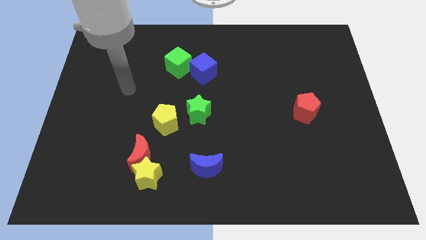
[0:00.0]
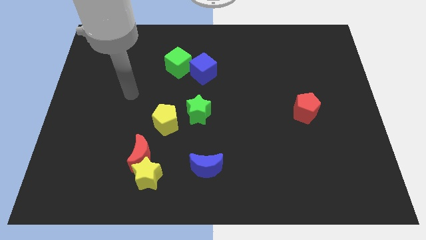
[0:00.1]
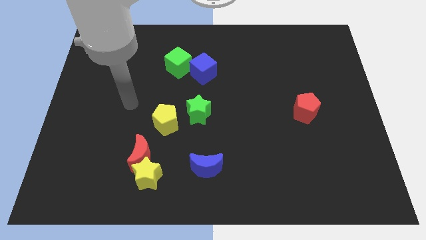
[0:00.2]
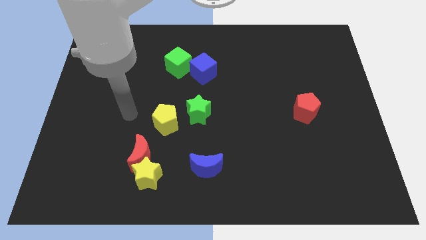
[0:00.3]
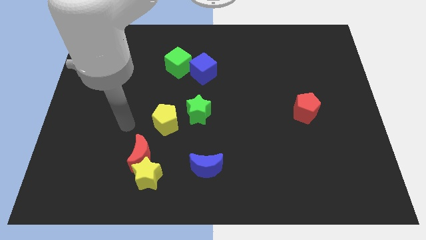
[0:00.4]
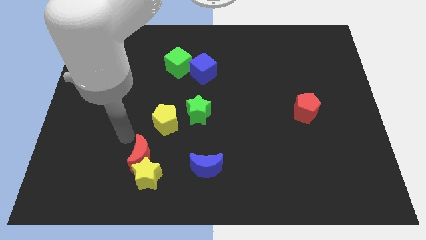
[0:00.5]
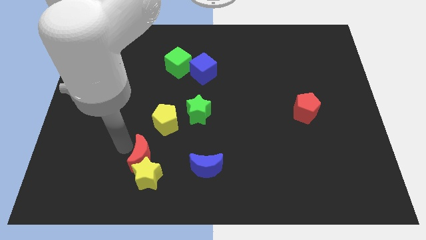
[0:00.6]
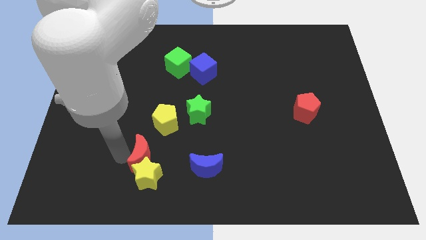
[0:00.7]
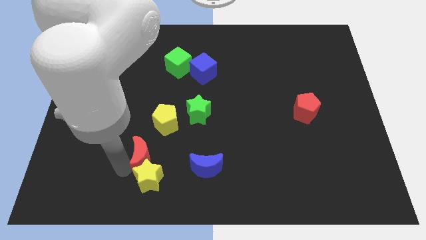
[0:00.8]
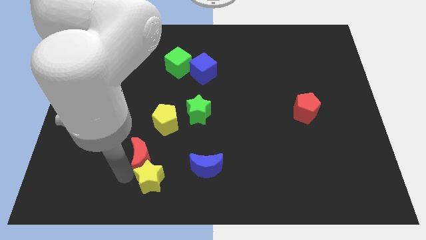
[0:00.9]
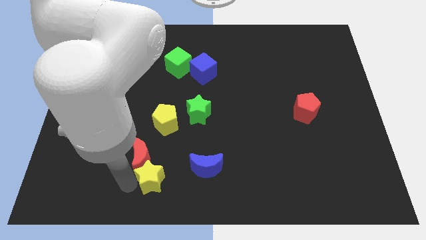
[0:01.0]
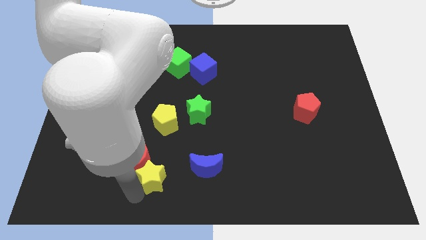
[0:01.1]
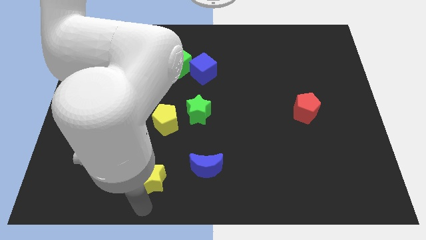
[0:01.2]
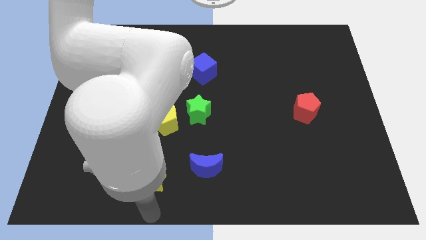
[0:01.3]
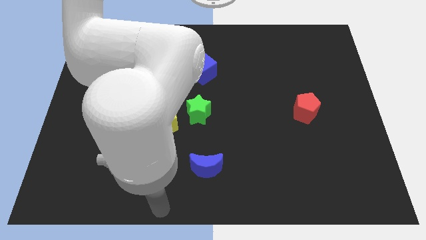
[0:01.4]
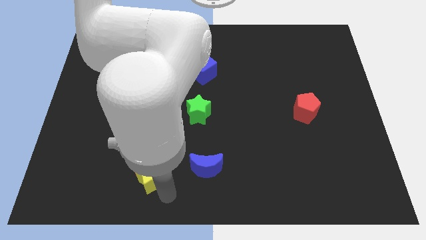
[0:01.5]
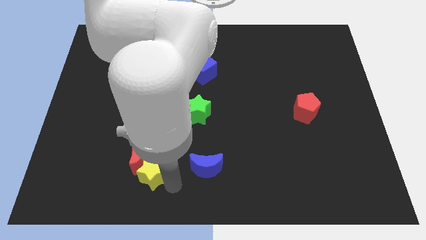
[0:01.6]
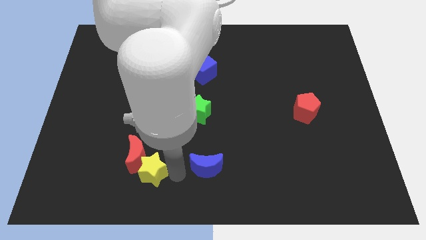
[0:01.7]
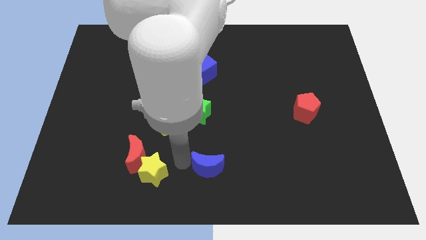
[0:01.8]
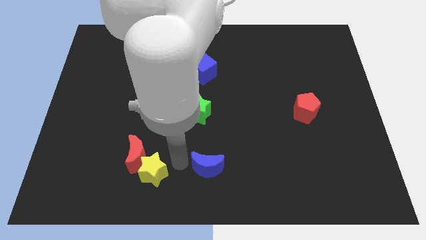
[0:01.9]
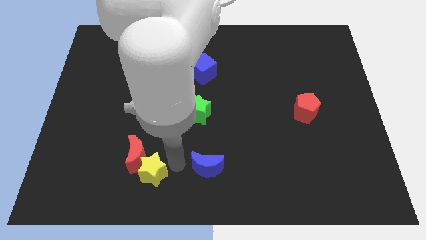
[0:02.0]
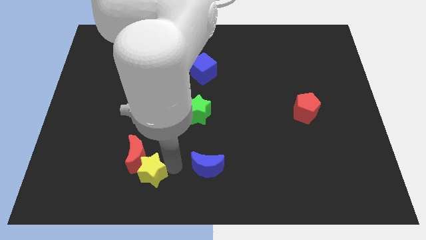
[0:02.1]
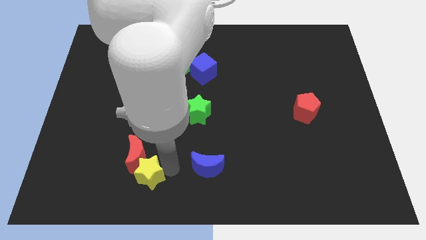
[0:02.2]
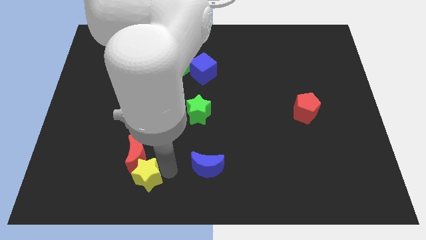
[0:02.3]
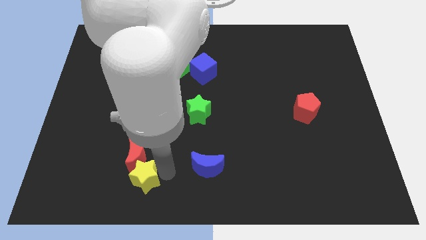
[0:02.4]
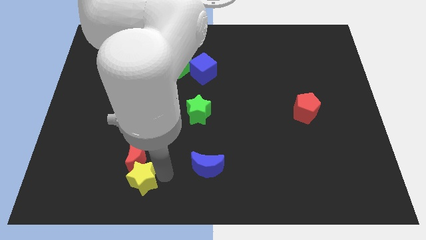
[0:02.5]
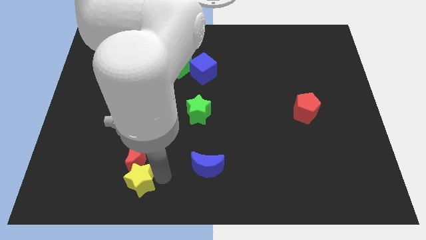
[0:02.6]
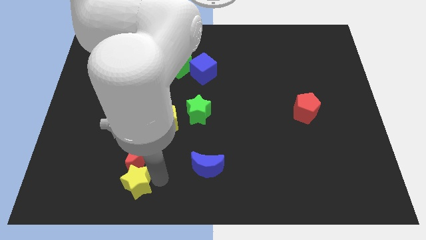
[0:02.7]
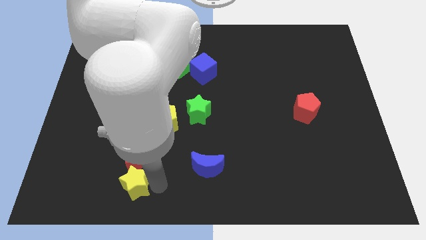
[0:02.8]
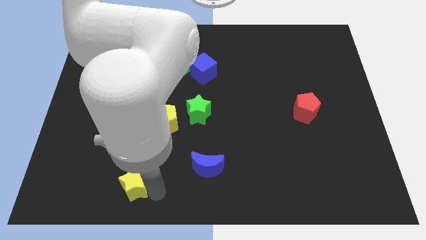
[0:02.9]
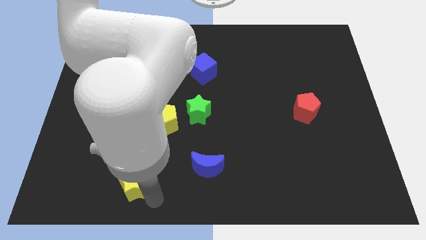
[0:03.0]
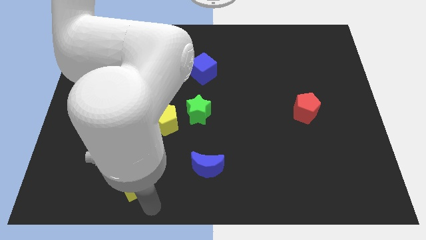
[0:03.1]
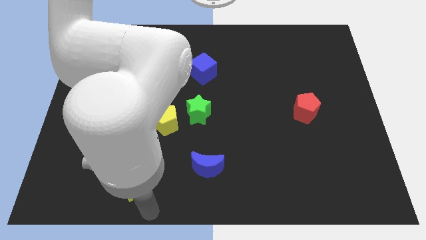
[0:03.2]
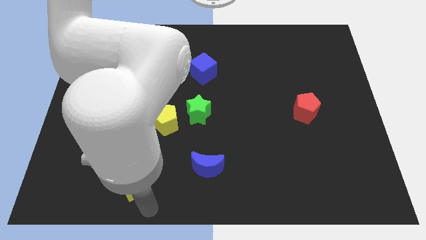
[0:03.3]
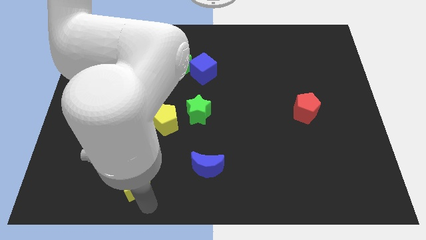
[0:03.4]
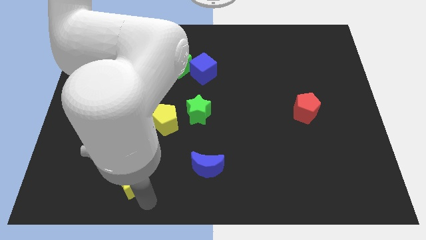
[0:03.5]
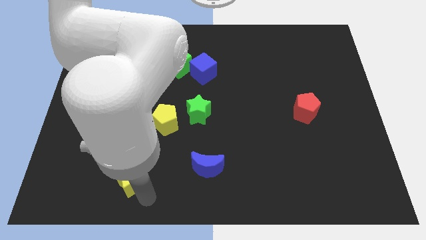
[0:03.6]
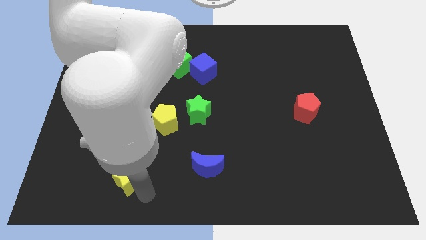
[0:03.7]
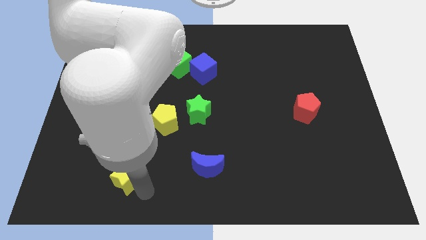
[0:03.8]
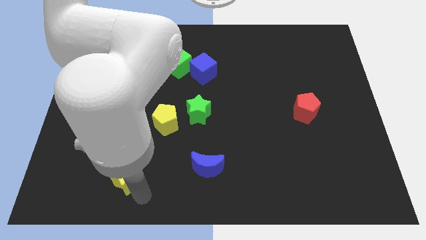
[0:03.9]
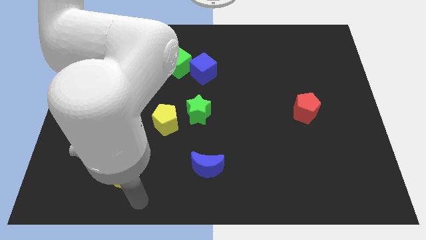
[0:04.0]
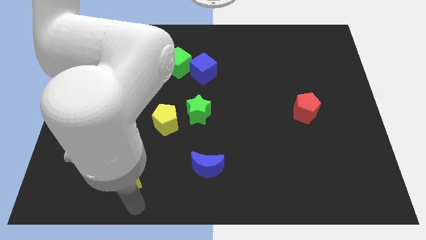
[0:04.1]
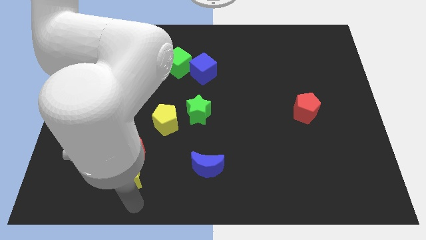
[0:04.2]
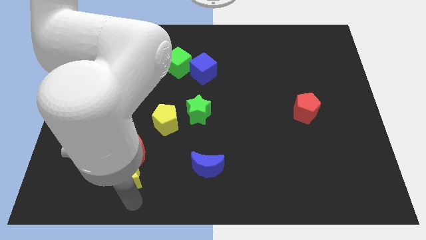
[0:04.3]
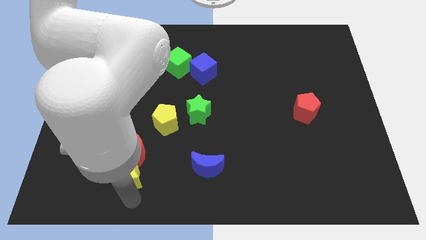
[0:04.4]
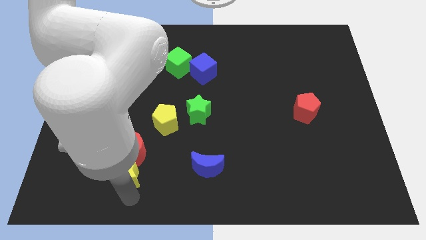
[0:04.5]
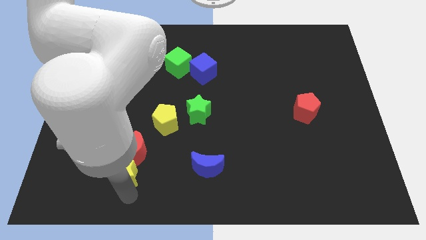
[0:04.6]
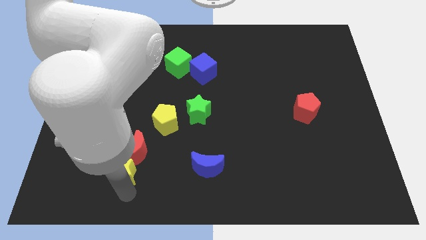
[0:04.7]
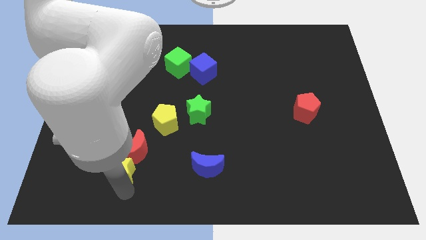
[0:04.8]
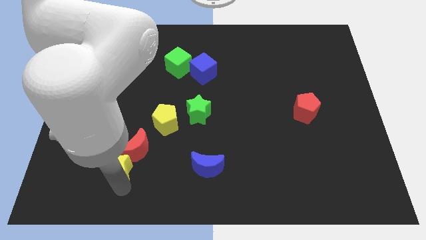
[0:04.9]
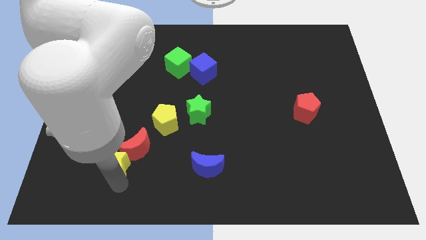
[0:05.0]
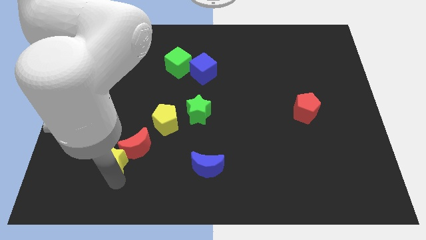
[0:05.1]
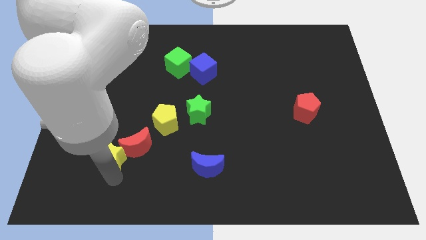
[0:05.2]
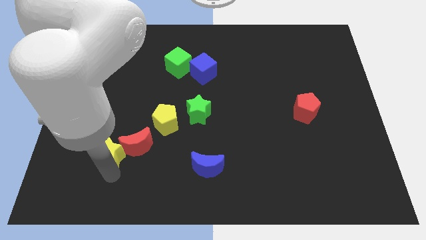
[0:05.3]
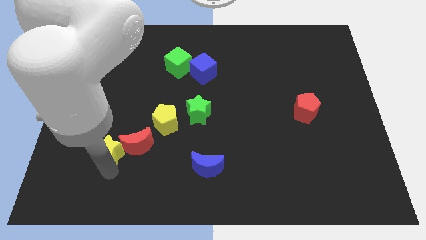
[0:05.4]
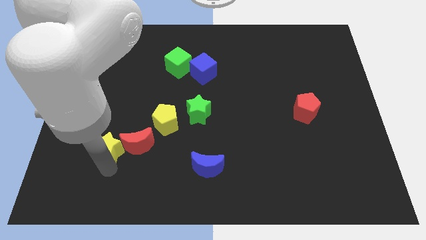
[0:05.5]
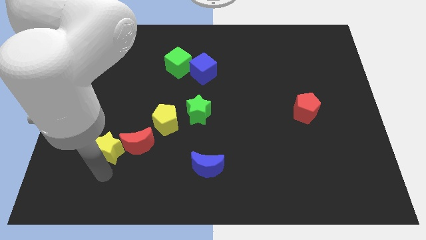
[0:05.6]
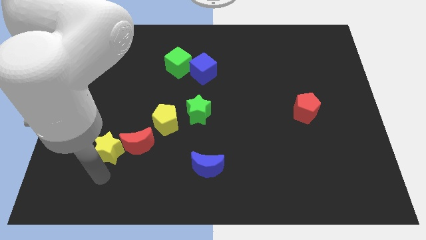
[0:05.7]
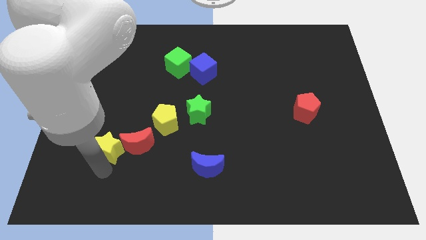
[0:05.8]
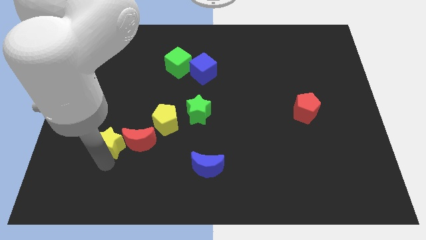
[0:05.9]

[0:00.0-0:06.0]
put the yellow star to the top left of the red moon

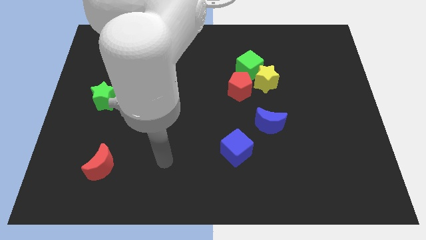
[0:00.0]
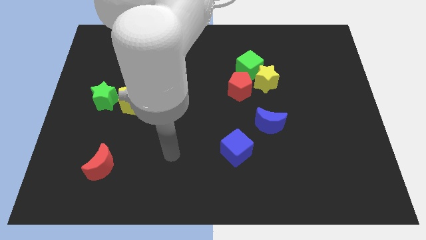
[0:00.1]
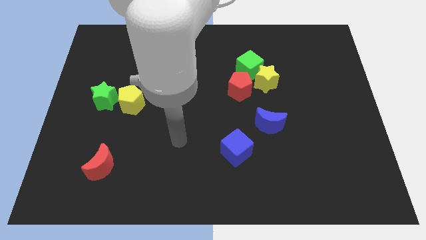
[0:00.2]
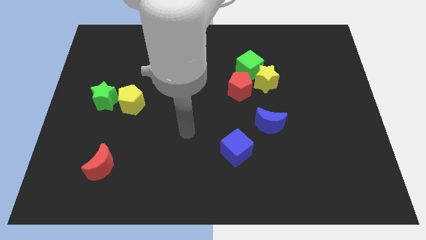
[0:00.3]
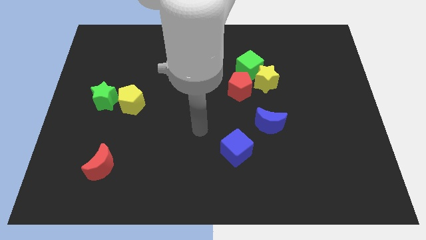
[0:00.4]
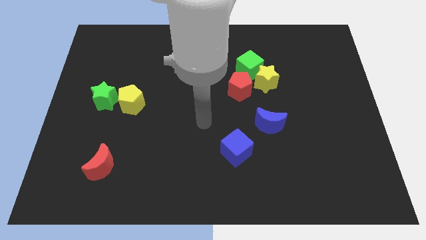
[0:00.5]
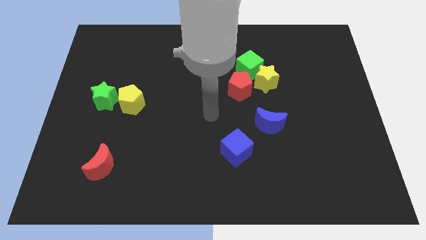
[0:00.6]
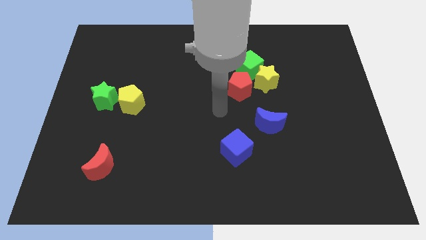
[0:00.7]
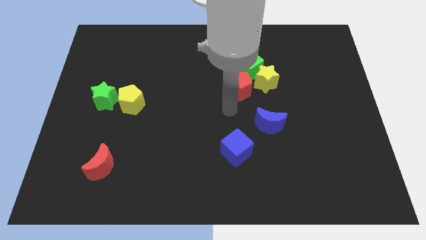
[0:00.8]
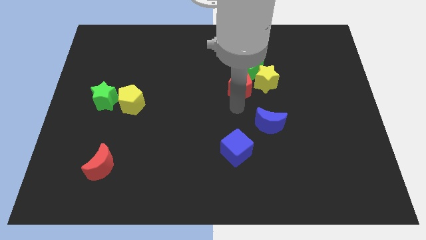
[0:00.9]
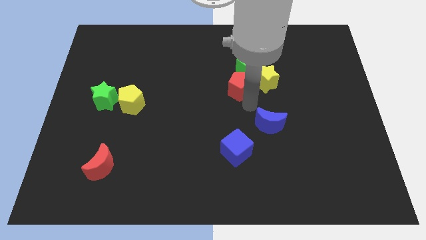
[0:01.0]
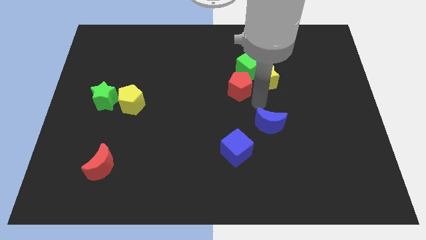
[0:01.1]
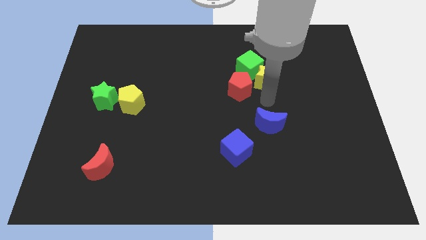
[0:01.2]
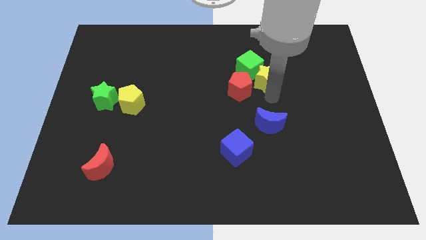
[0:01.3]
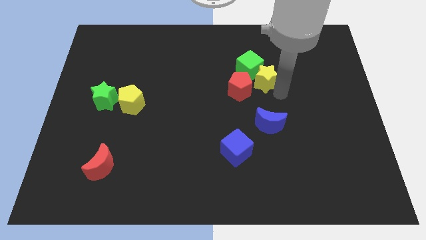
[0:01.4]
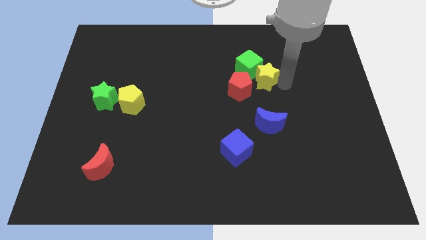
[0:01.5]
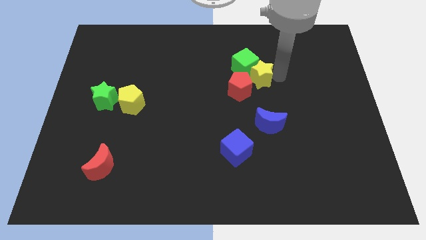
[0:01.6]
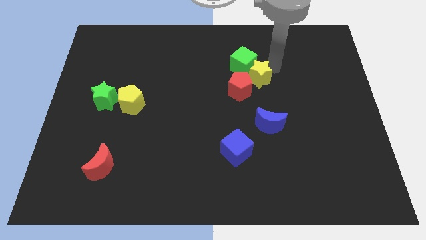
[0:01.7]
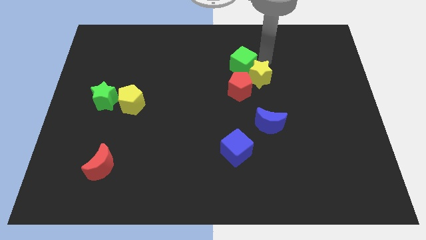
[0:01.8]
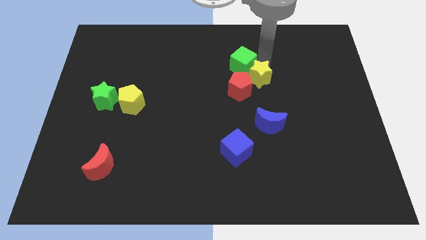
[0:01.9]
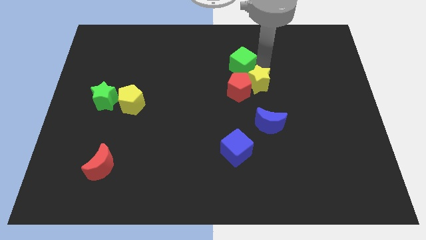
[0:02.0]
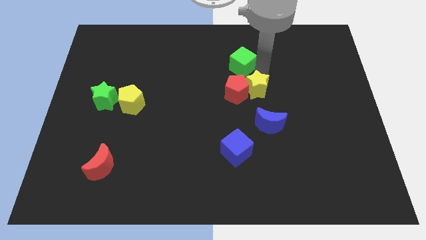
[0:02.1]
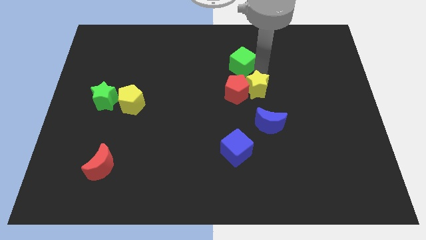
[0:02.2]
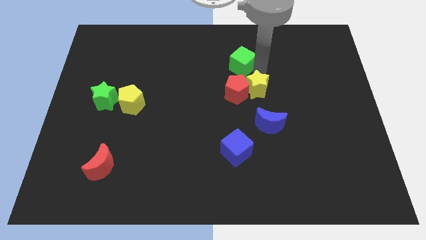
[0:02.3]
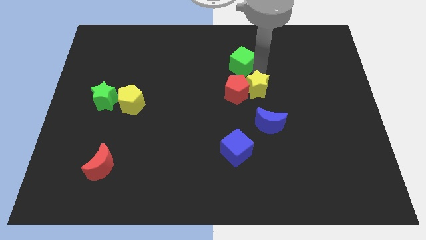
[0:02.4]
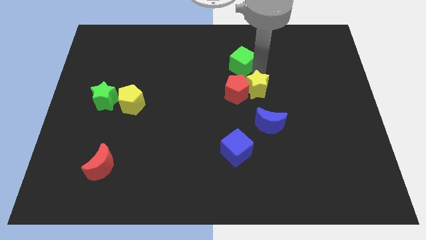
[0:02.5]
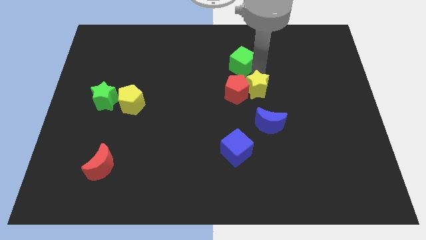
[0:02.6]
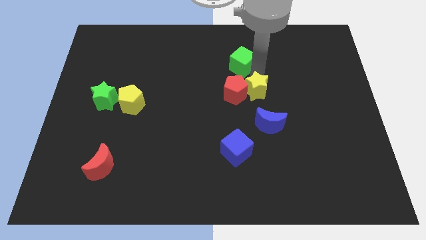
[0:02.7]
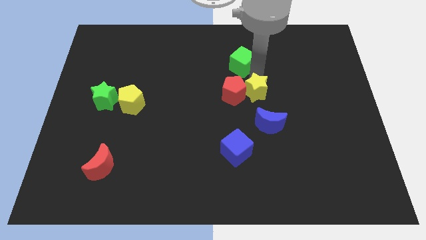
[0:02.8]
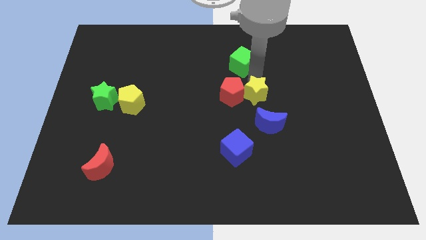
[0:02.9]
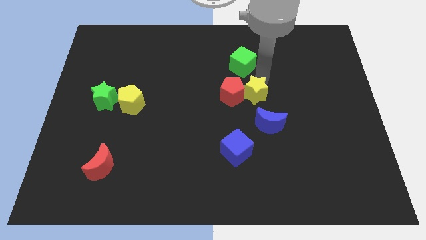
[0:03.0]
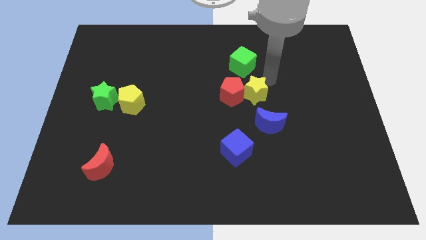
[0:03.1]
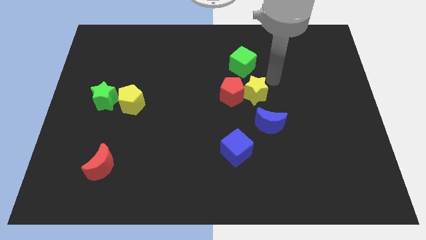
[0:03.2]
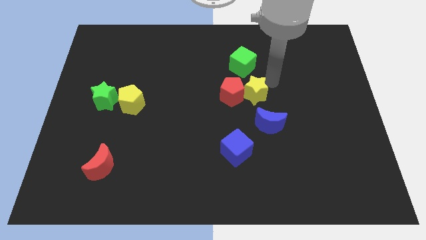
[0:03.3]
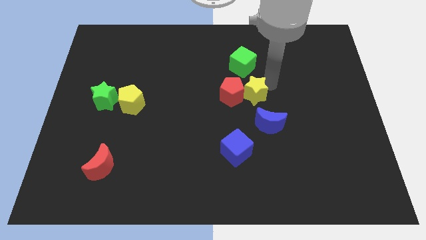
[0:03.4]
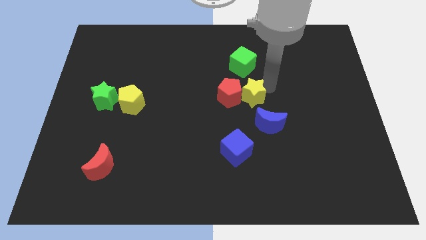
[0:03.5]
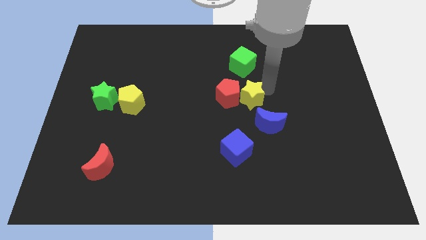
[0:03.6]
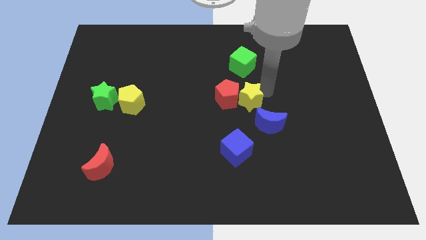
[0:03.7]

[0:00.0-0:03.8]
put the yellow star above the blue cube
